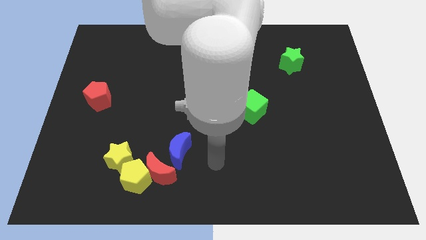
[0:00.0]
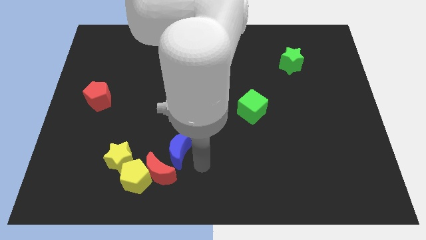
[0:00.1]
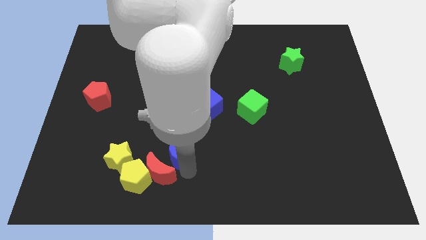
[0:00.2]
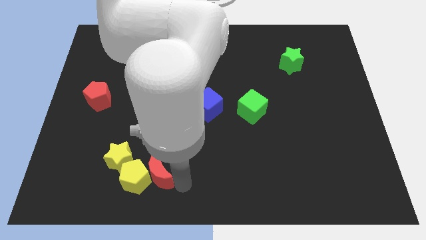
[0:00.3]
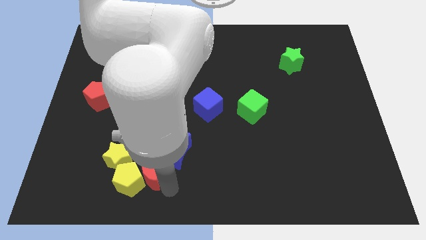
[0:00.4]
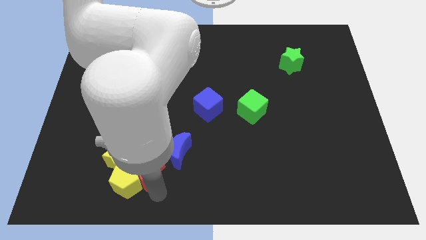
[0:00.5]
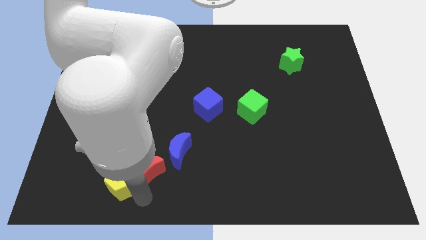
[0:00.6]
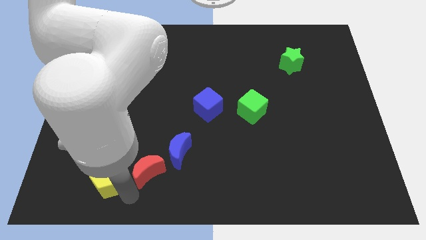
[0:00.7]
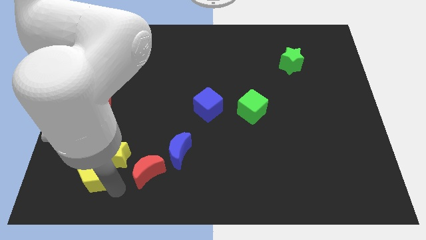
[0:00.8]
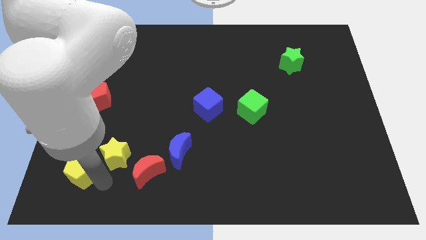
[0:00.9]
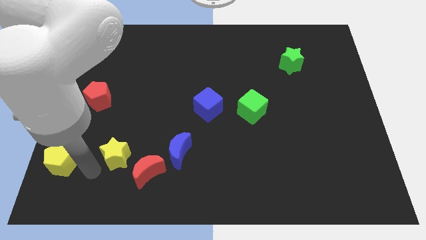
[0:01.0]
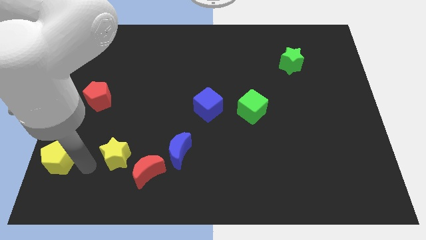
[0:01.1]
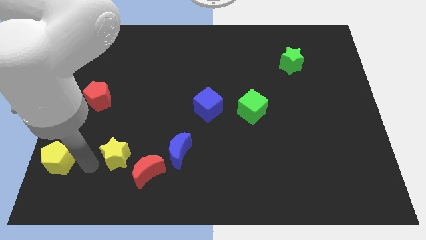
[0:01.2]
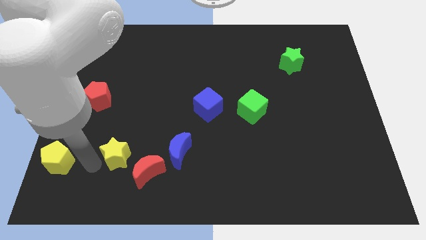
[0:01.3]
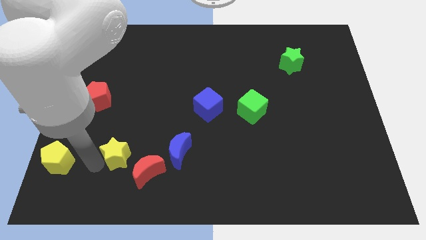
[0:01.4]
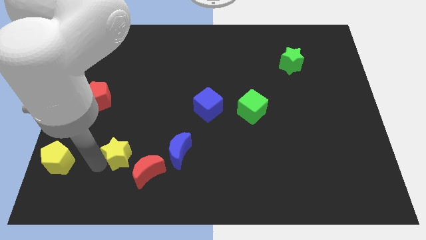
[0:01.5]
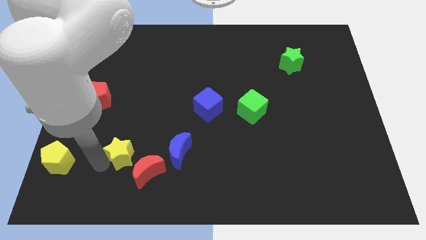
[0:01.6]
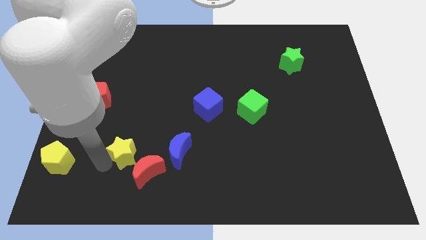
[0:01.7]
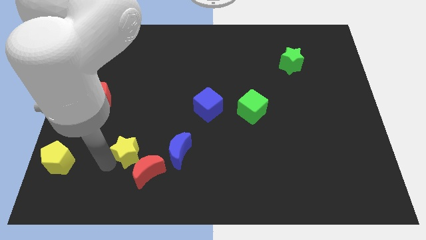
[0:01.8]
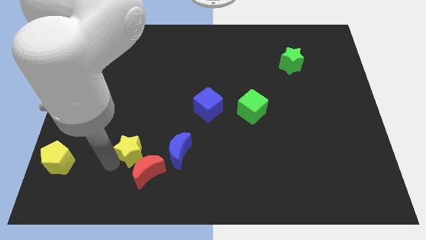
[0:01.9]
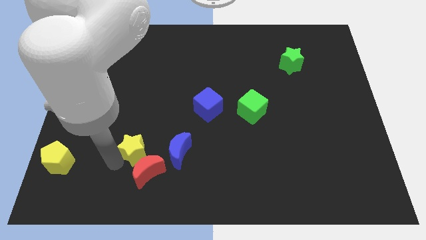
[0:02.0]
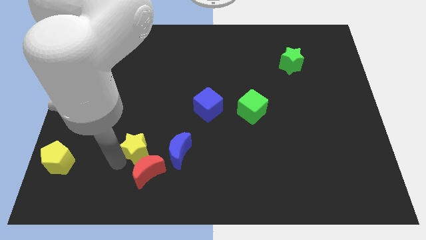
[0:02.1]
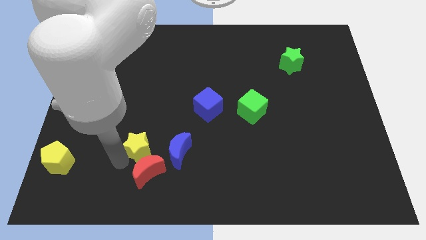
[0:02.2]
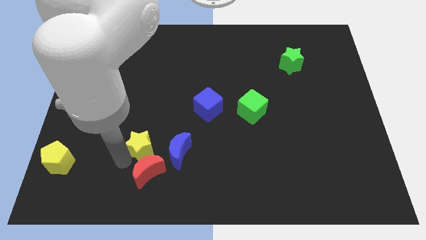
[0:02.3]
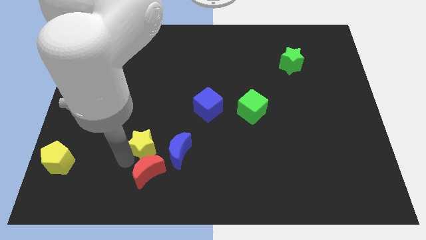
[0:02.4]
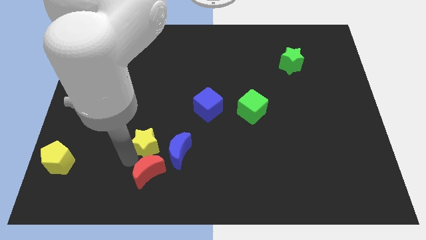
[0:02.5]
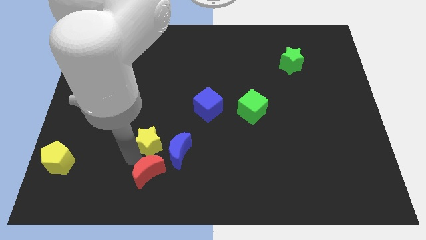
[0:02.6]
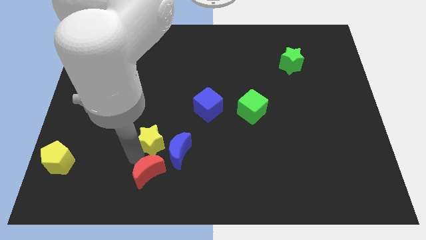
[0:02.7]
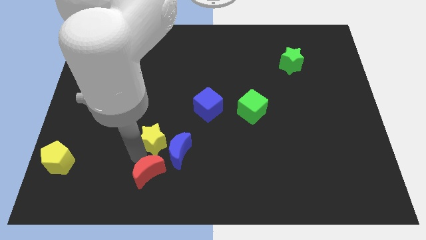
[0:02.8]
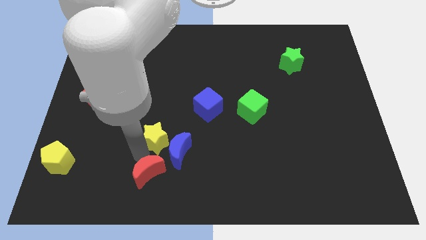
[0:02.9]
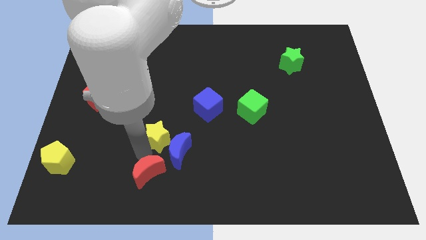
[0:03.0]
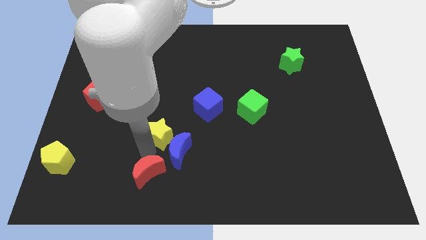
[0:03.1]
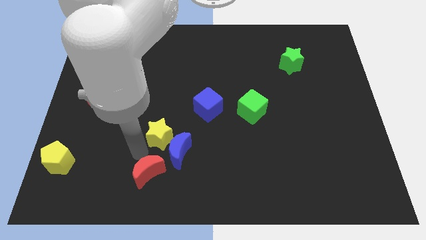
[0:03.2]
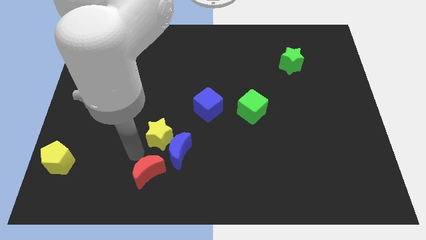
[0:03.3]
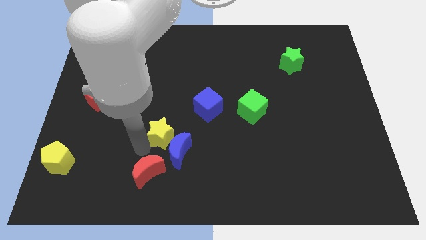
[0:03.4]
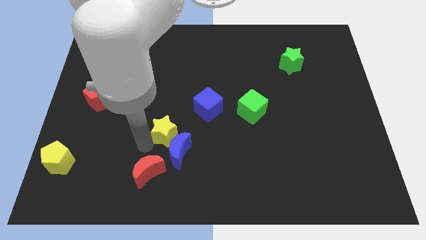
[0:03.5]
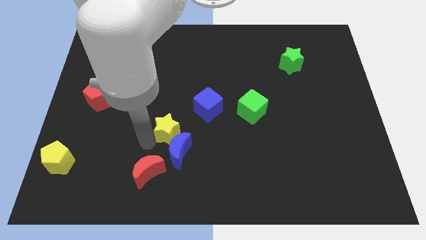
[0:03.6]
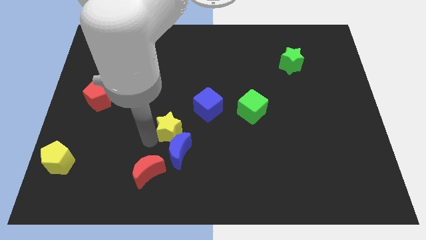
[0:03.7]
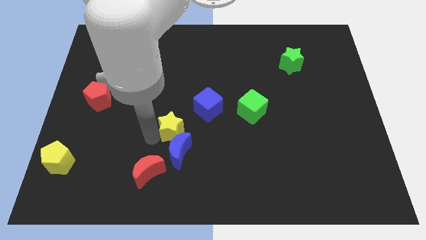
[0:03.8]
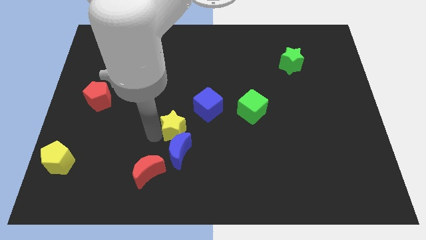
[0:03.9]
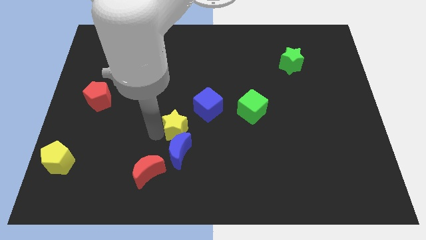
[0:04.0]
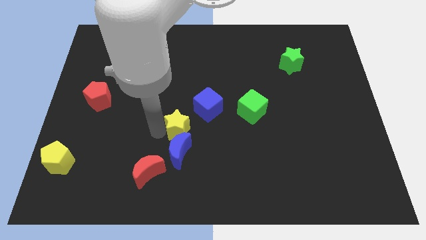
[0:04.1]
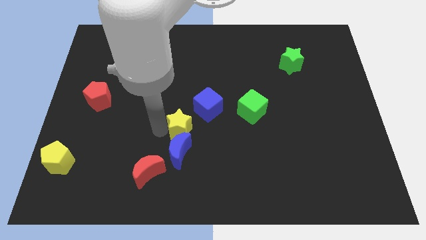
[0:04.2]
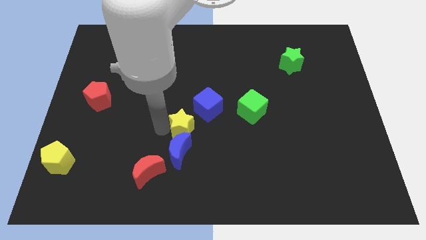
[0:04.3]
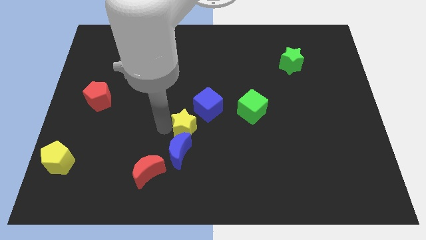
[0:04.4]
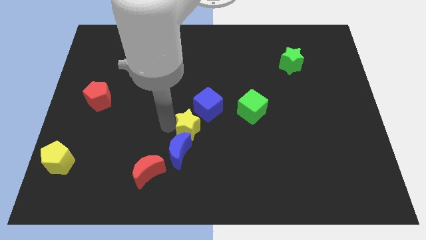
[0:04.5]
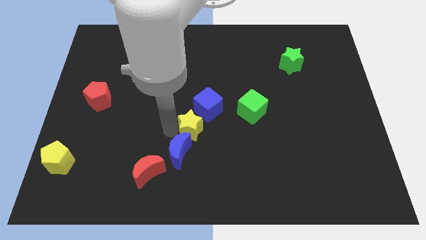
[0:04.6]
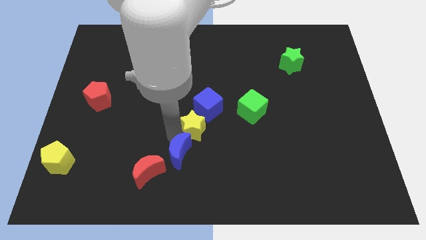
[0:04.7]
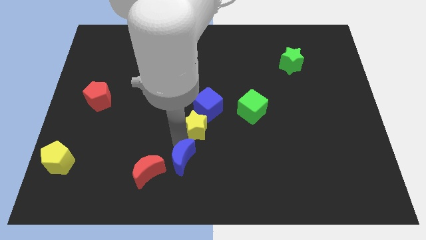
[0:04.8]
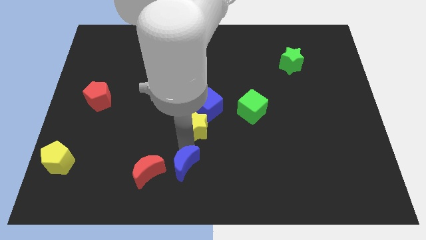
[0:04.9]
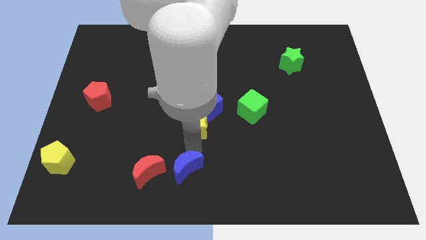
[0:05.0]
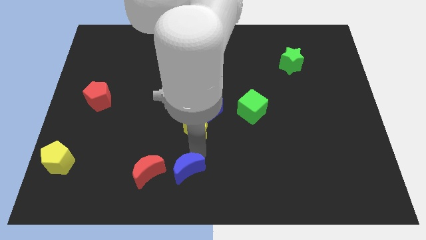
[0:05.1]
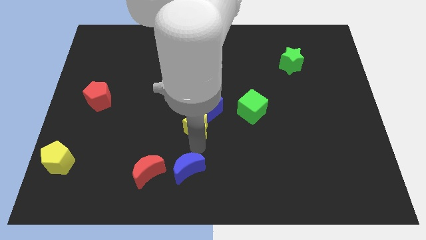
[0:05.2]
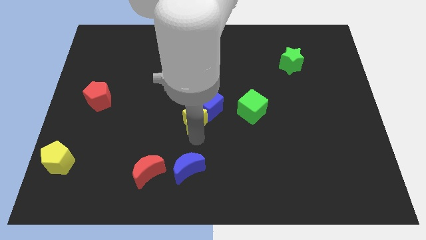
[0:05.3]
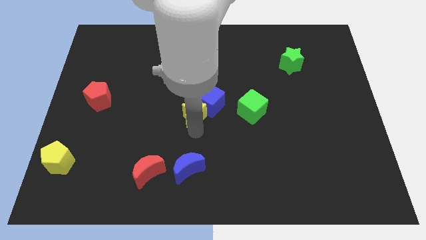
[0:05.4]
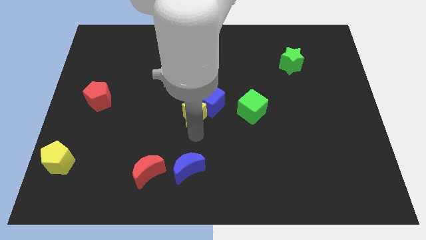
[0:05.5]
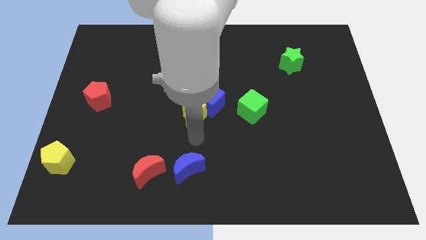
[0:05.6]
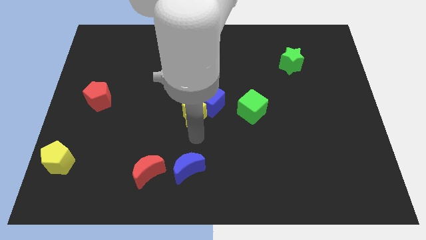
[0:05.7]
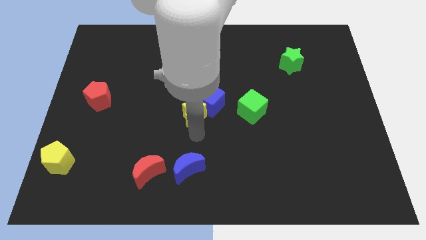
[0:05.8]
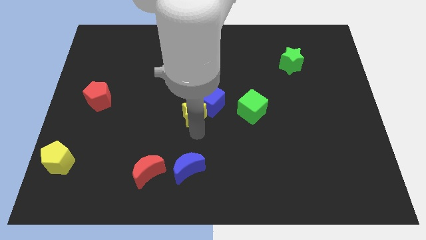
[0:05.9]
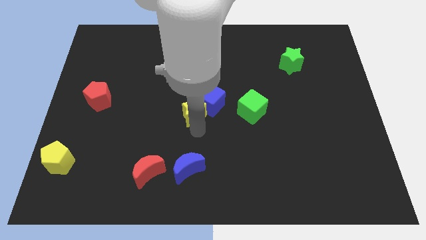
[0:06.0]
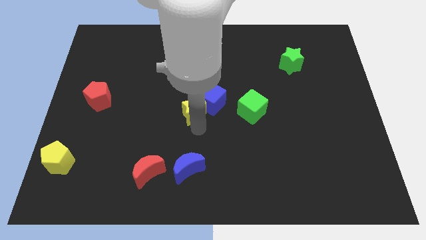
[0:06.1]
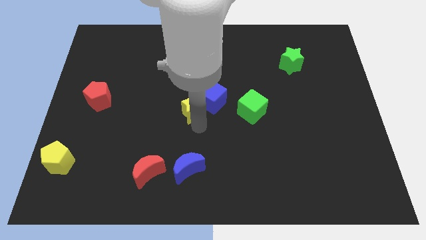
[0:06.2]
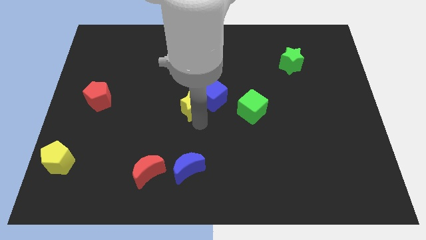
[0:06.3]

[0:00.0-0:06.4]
slide the yellow star up and right

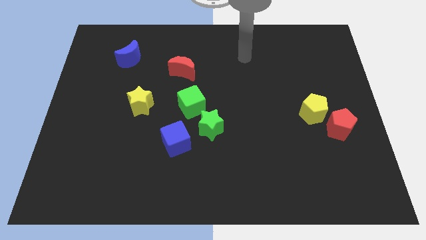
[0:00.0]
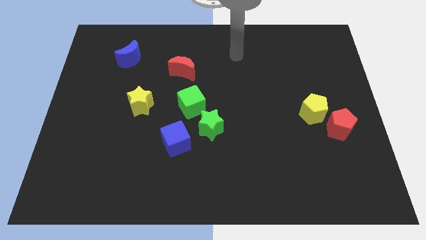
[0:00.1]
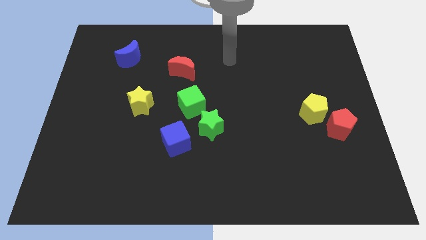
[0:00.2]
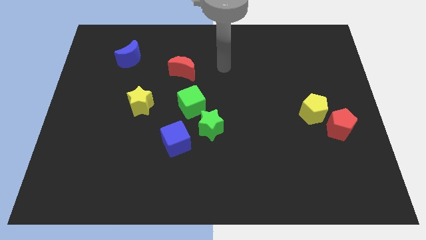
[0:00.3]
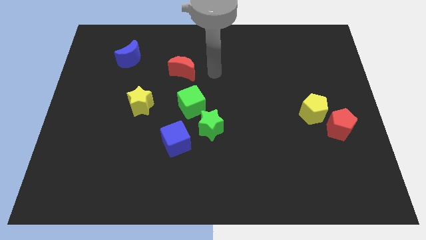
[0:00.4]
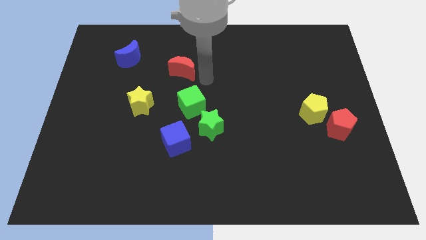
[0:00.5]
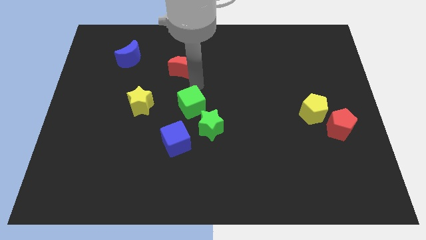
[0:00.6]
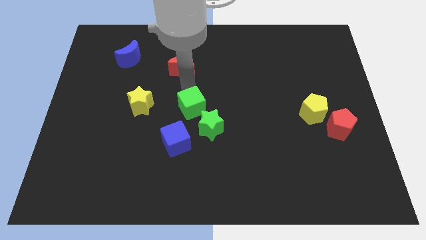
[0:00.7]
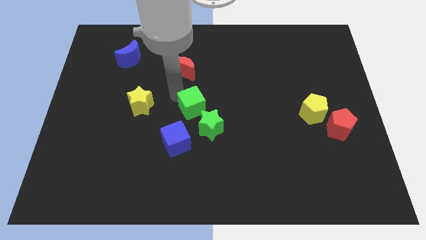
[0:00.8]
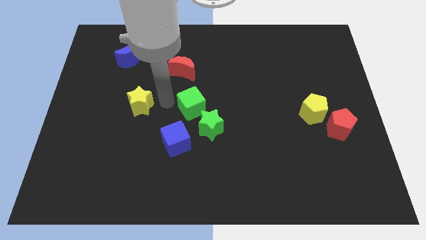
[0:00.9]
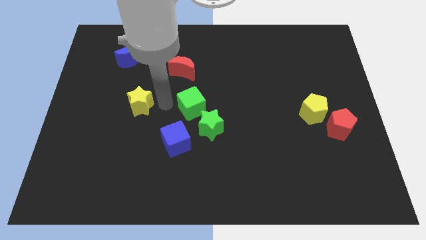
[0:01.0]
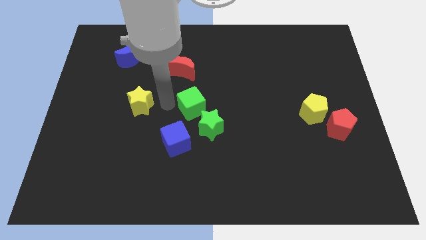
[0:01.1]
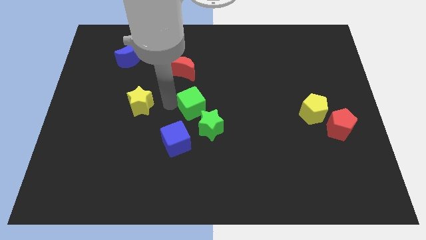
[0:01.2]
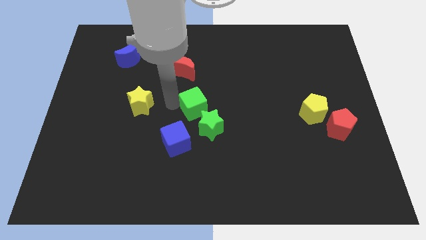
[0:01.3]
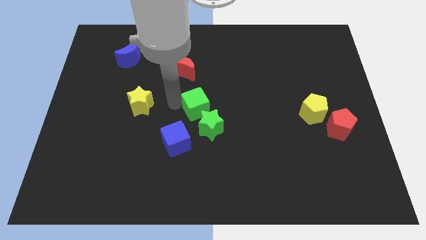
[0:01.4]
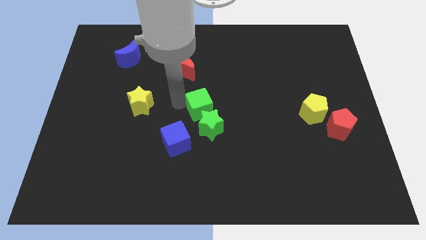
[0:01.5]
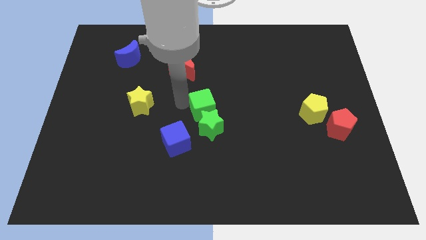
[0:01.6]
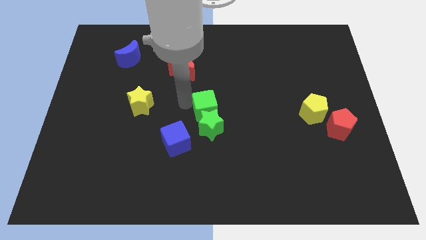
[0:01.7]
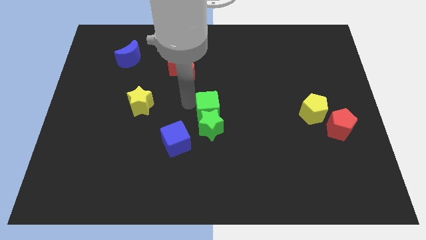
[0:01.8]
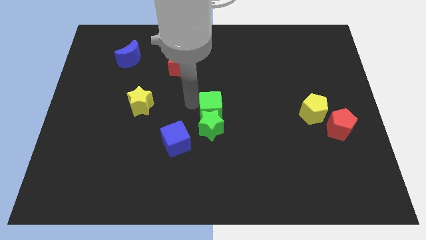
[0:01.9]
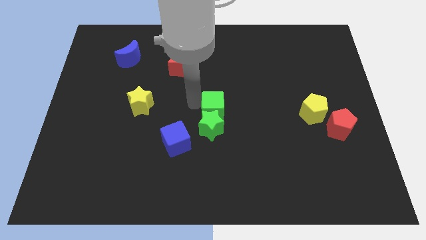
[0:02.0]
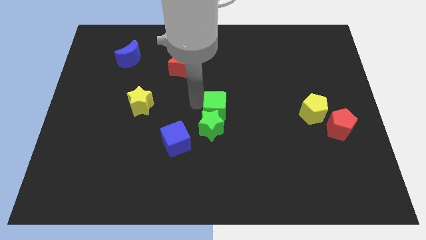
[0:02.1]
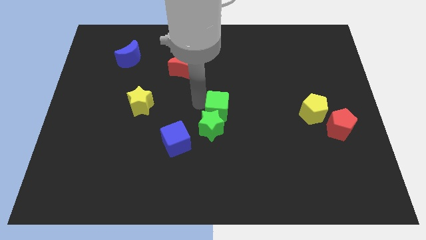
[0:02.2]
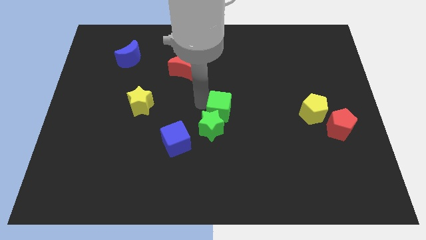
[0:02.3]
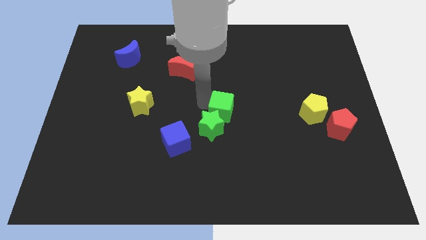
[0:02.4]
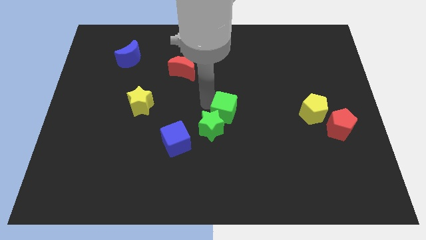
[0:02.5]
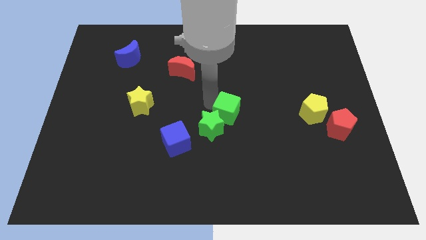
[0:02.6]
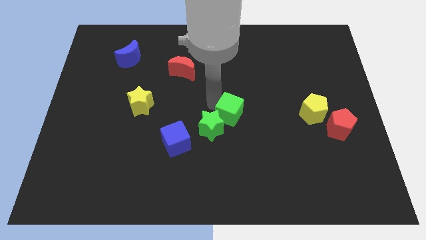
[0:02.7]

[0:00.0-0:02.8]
slightly move the green cube diagonally downwards and right
